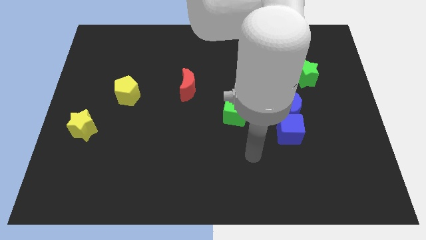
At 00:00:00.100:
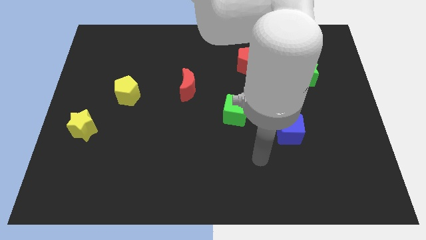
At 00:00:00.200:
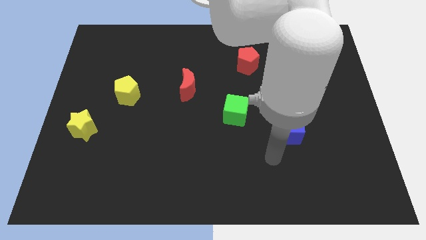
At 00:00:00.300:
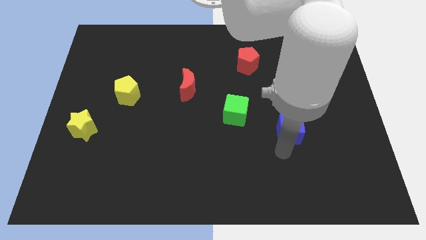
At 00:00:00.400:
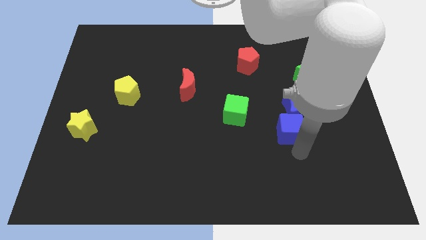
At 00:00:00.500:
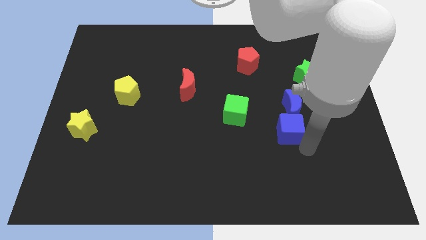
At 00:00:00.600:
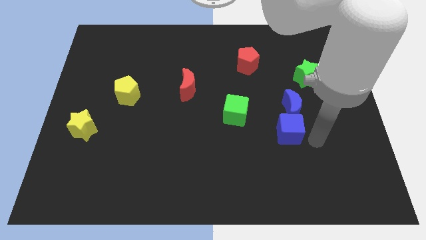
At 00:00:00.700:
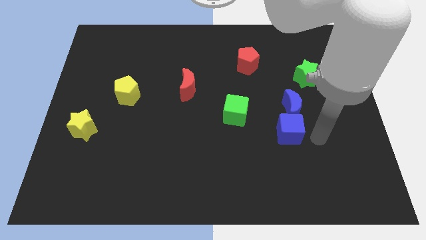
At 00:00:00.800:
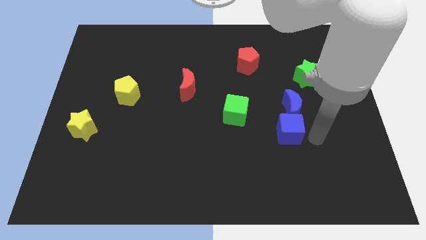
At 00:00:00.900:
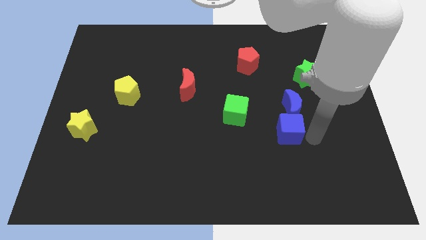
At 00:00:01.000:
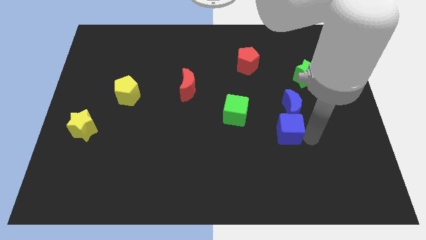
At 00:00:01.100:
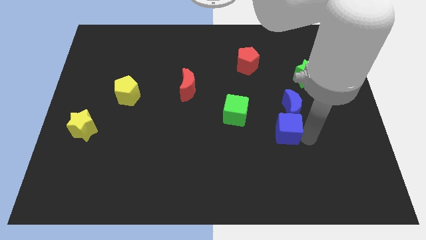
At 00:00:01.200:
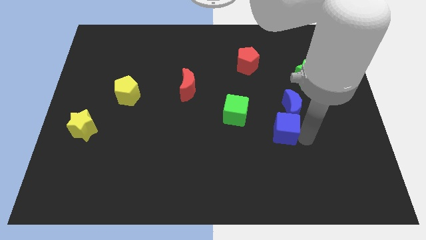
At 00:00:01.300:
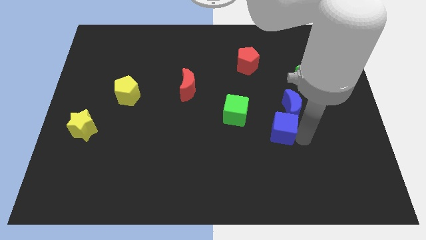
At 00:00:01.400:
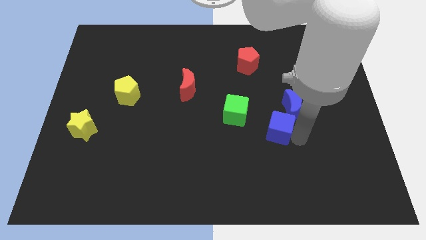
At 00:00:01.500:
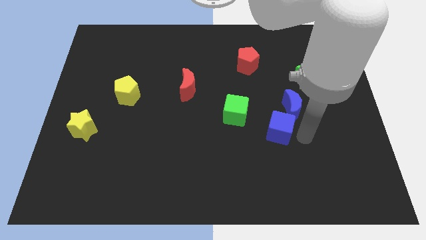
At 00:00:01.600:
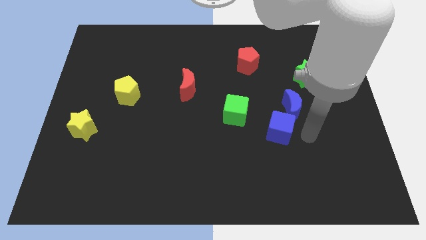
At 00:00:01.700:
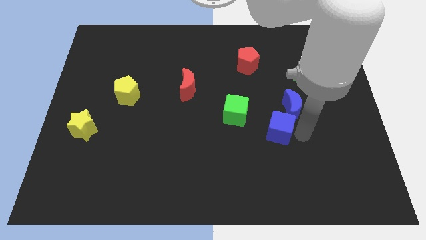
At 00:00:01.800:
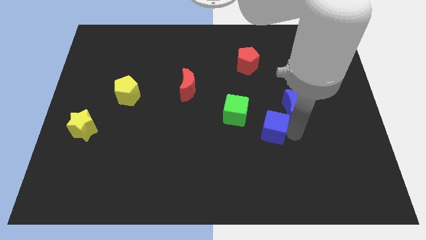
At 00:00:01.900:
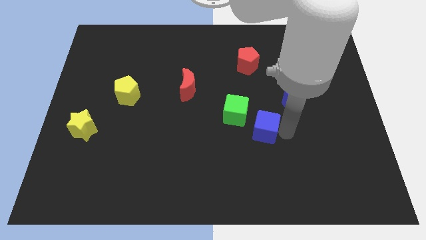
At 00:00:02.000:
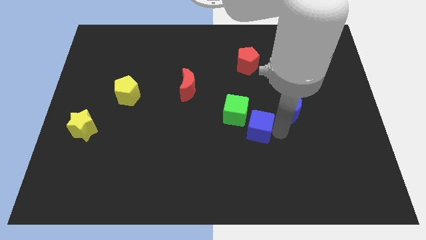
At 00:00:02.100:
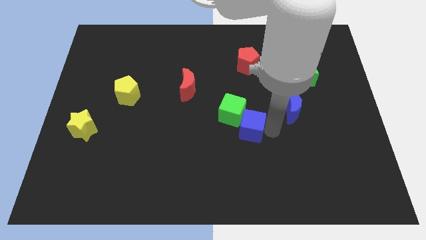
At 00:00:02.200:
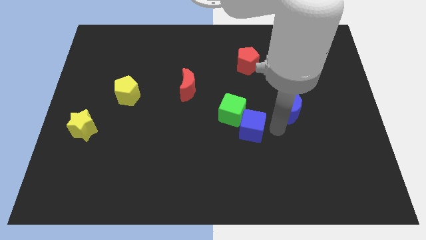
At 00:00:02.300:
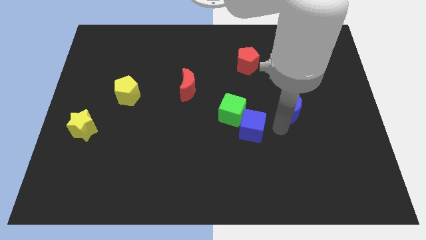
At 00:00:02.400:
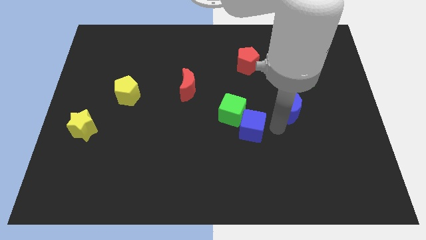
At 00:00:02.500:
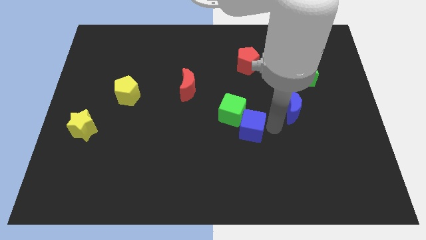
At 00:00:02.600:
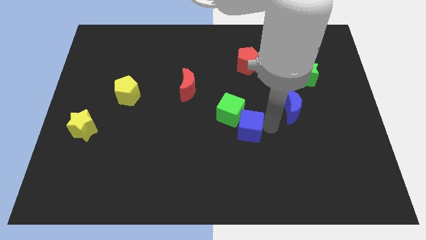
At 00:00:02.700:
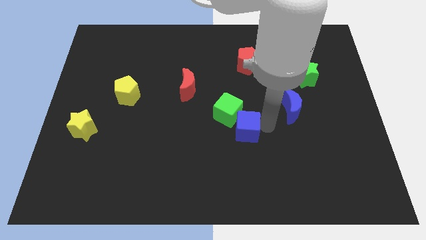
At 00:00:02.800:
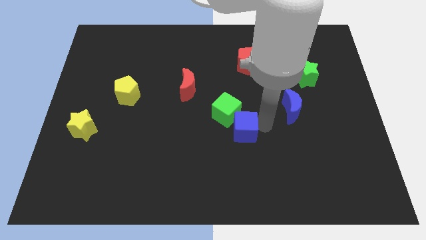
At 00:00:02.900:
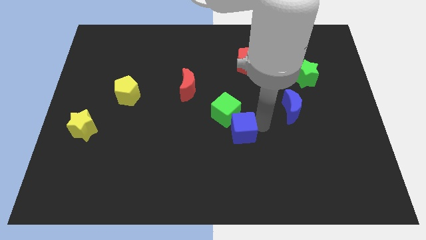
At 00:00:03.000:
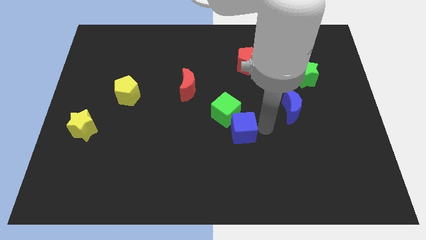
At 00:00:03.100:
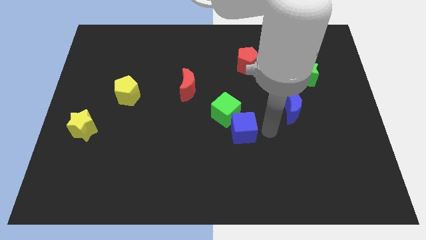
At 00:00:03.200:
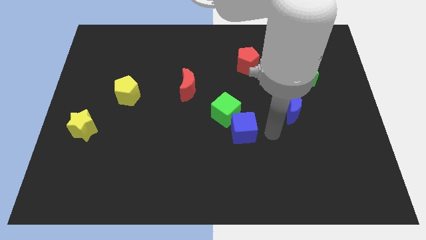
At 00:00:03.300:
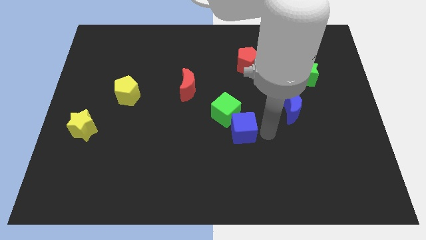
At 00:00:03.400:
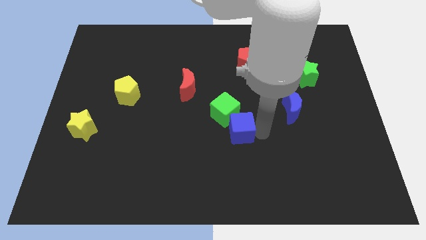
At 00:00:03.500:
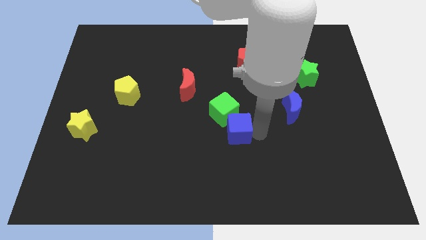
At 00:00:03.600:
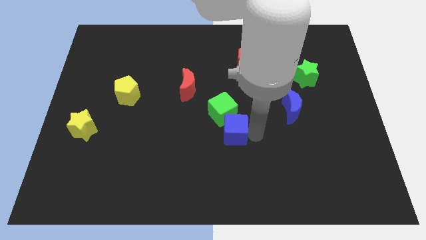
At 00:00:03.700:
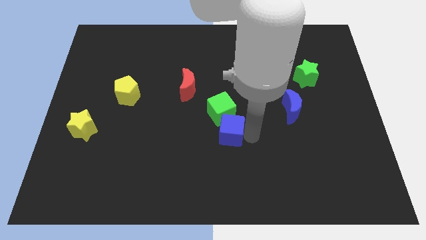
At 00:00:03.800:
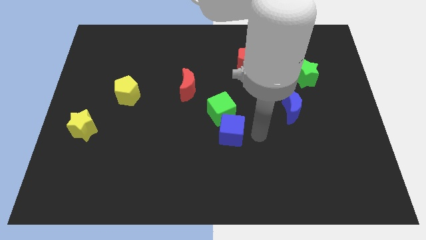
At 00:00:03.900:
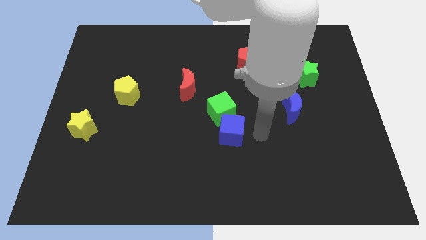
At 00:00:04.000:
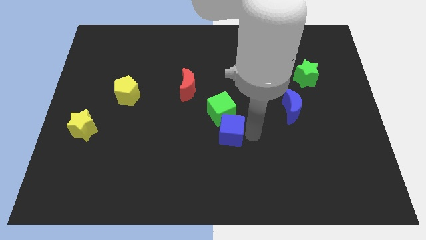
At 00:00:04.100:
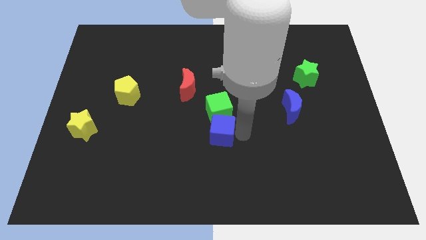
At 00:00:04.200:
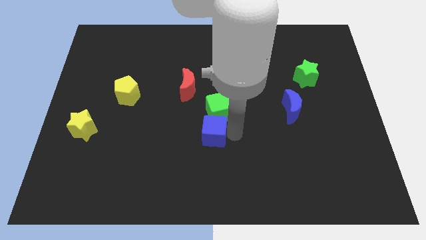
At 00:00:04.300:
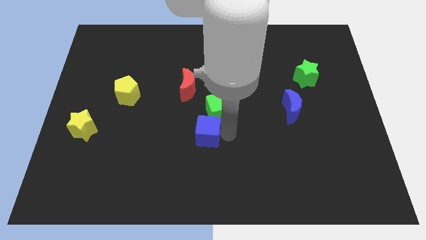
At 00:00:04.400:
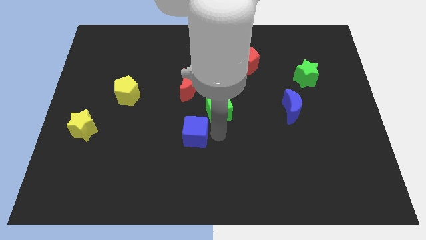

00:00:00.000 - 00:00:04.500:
move the blue cube to the left

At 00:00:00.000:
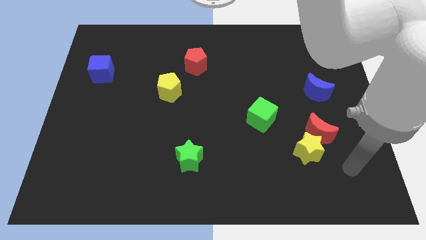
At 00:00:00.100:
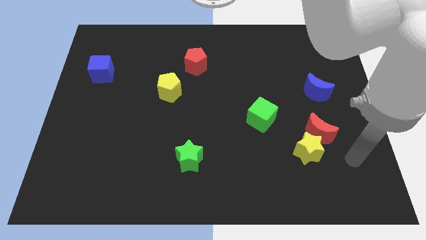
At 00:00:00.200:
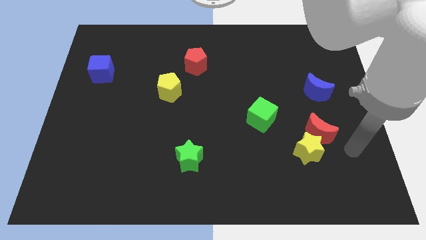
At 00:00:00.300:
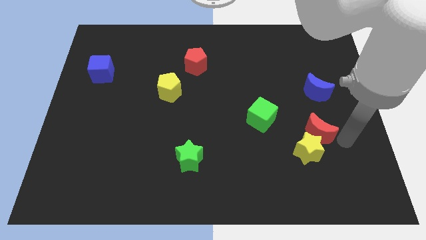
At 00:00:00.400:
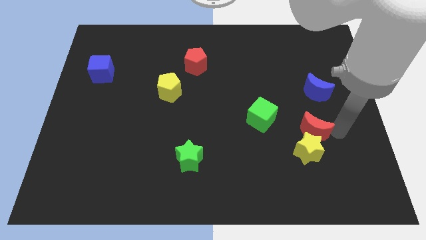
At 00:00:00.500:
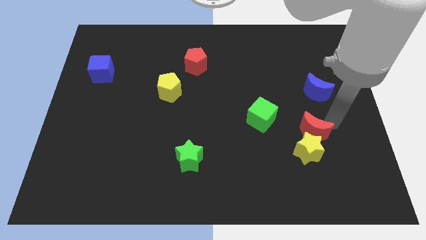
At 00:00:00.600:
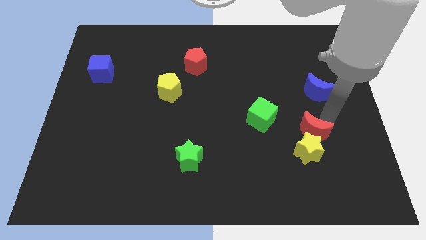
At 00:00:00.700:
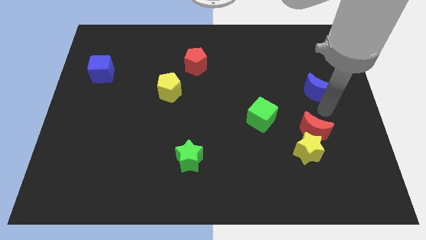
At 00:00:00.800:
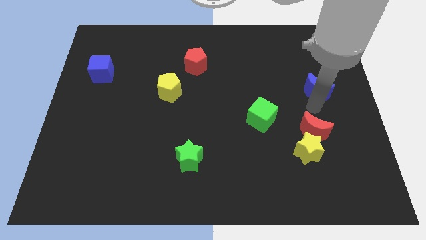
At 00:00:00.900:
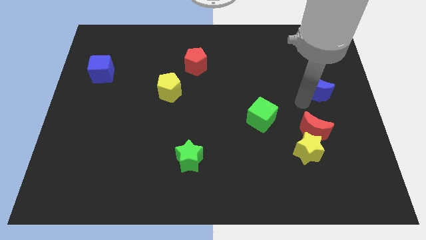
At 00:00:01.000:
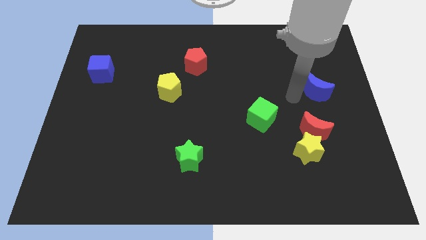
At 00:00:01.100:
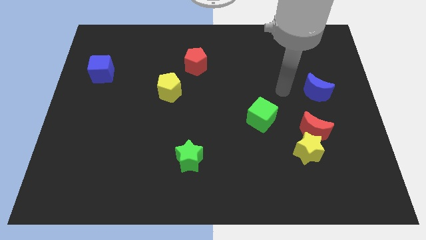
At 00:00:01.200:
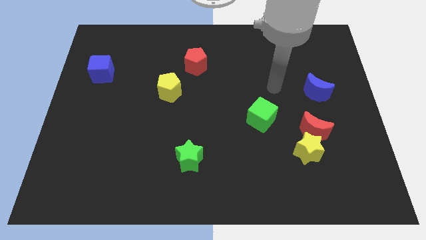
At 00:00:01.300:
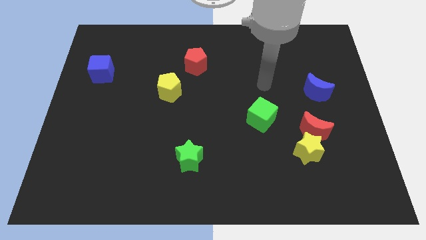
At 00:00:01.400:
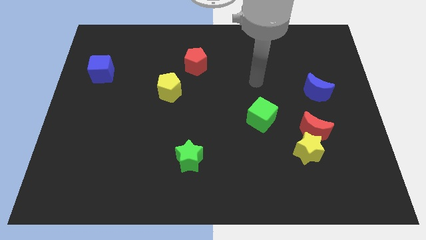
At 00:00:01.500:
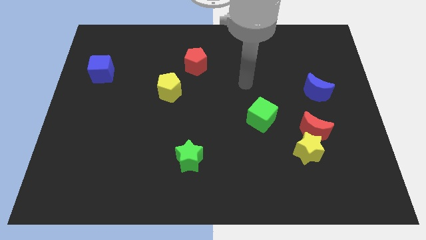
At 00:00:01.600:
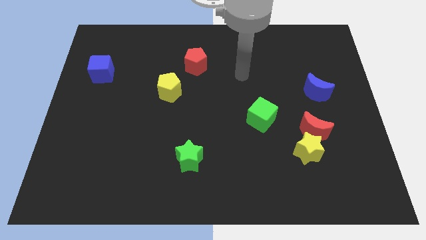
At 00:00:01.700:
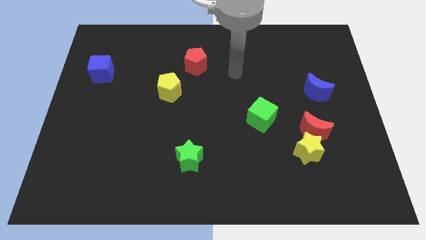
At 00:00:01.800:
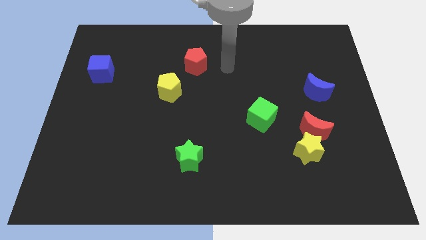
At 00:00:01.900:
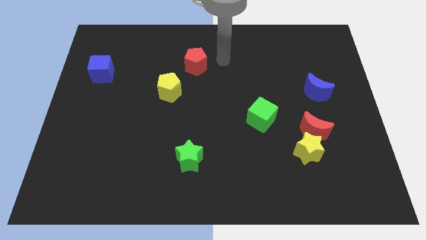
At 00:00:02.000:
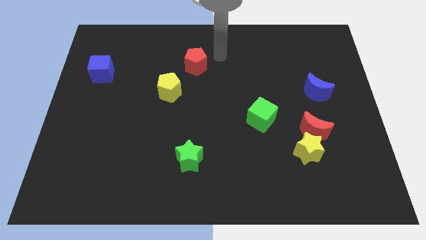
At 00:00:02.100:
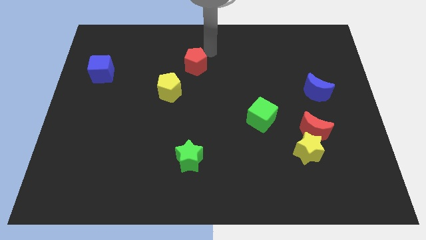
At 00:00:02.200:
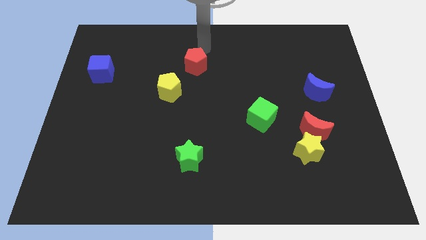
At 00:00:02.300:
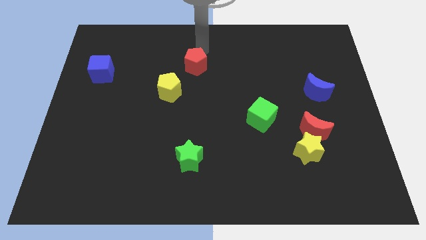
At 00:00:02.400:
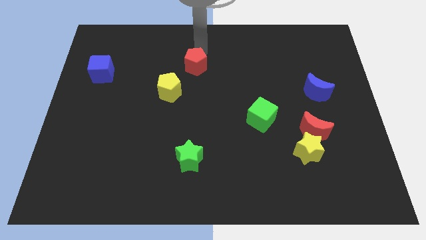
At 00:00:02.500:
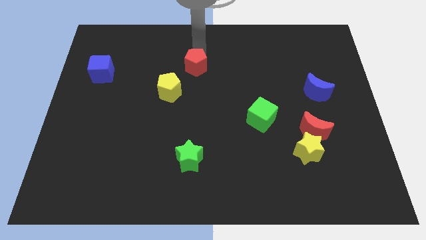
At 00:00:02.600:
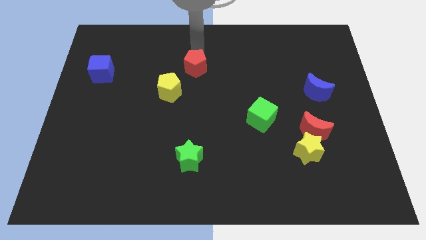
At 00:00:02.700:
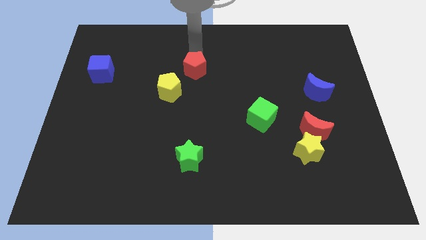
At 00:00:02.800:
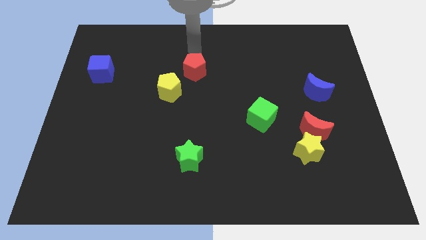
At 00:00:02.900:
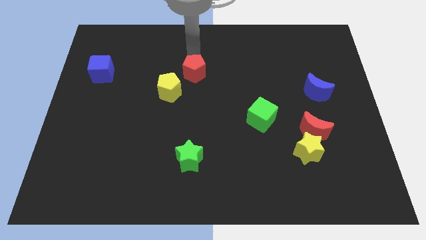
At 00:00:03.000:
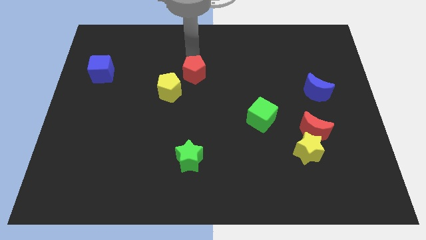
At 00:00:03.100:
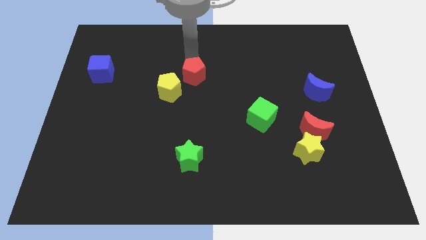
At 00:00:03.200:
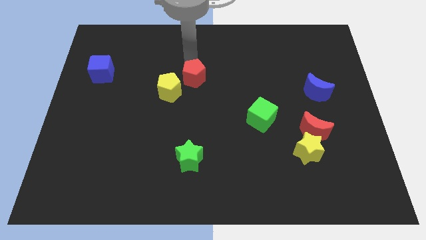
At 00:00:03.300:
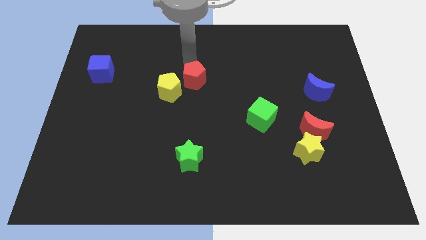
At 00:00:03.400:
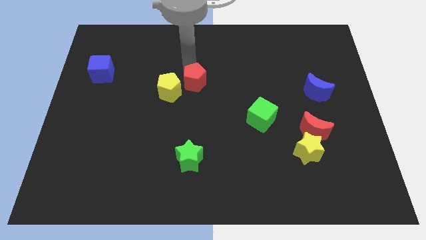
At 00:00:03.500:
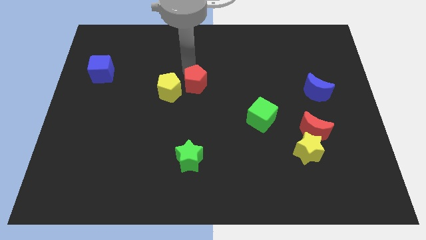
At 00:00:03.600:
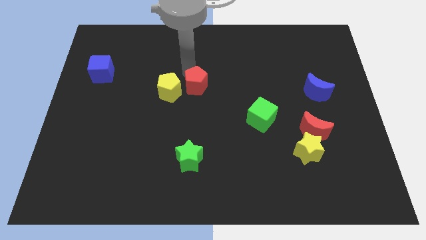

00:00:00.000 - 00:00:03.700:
slightly move the red pentagon down
